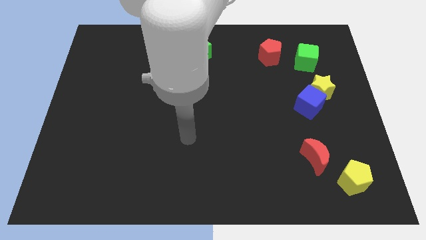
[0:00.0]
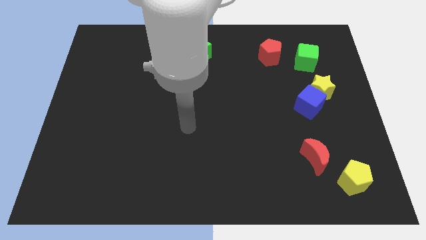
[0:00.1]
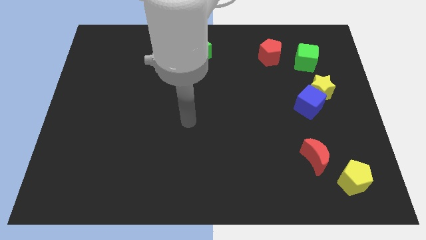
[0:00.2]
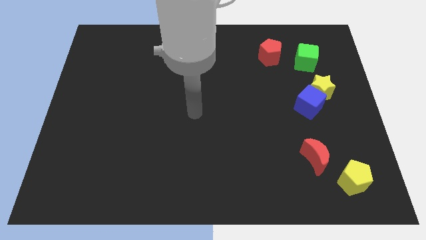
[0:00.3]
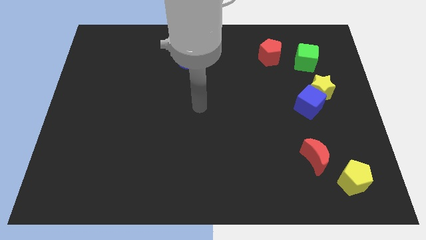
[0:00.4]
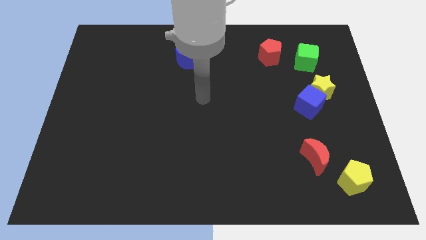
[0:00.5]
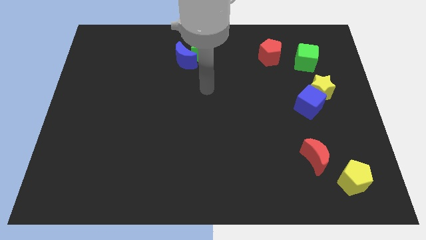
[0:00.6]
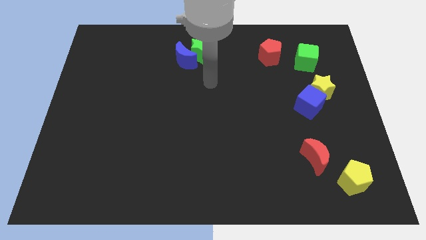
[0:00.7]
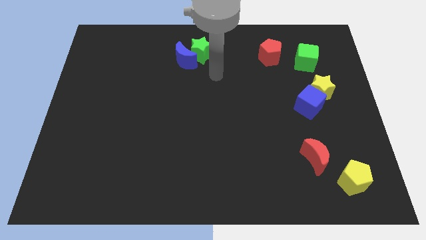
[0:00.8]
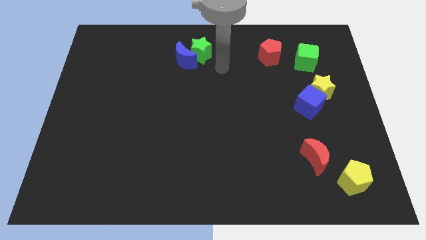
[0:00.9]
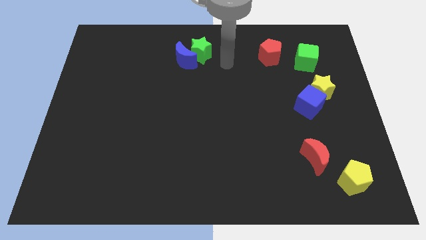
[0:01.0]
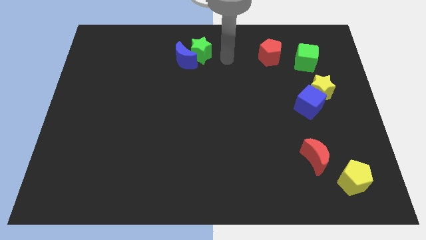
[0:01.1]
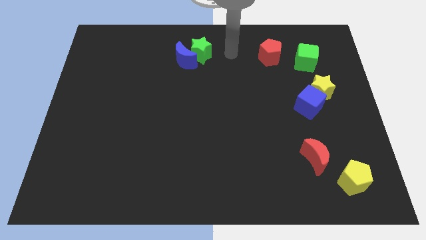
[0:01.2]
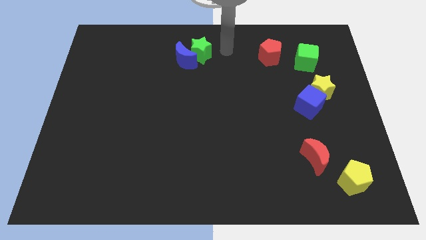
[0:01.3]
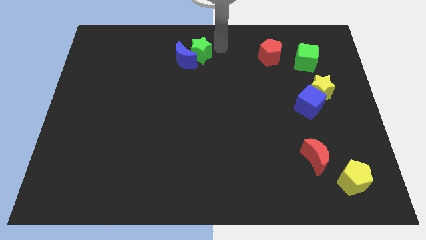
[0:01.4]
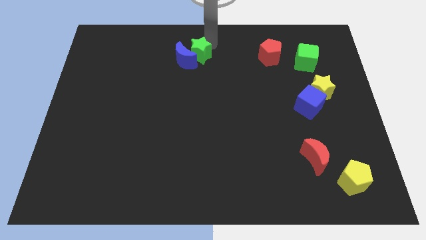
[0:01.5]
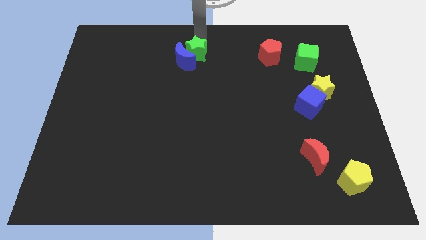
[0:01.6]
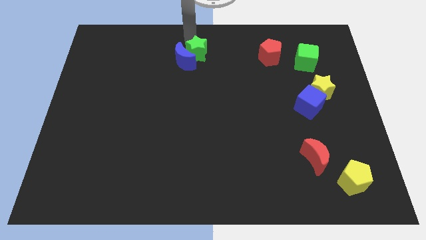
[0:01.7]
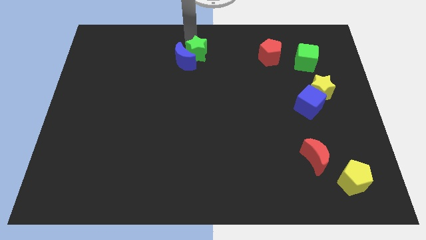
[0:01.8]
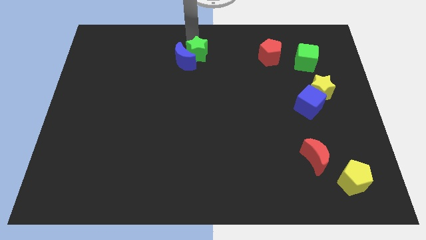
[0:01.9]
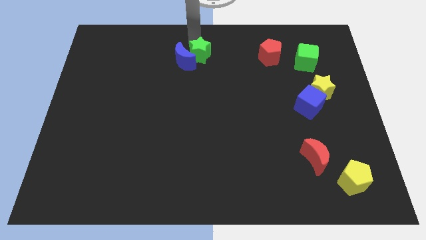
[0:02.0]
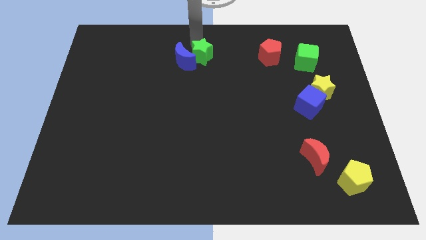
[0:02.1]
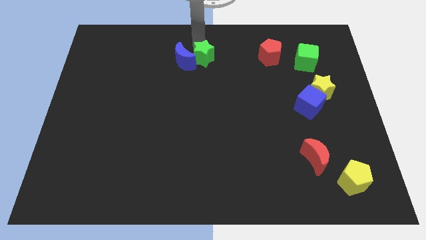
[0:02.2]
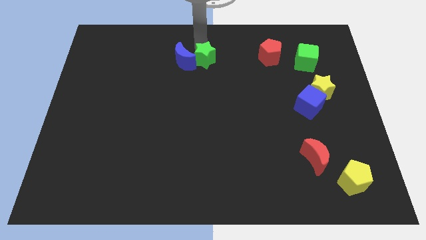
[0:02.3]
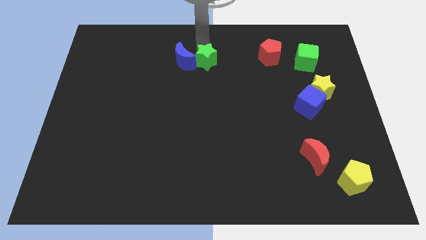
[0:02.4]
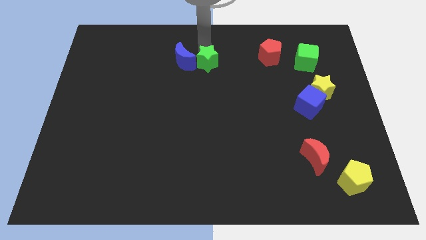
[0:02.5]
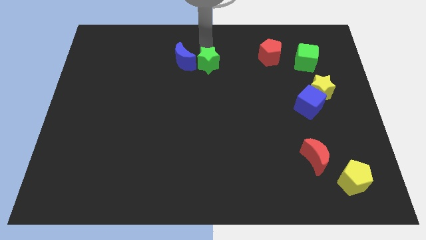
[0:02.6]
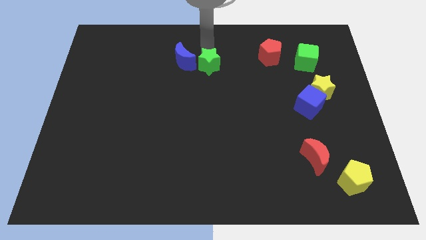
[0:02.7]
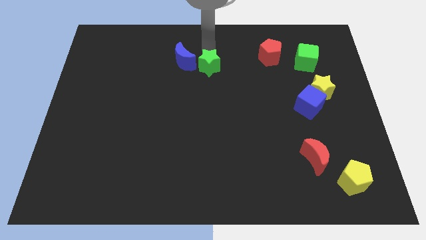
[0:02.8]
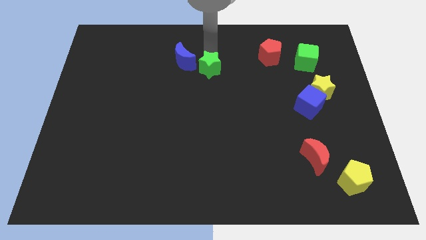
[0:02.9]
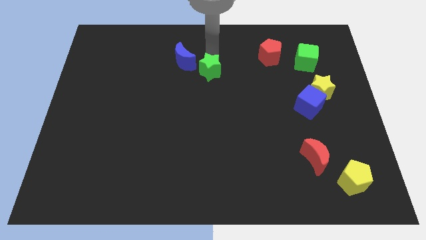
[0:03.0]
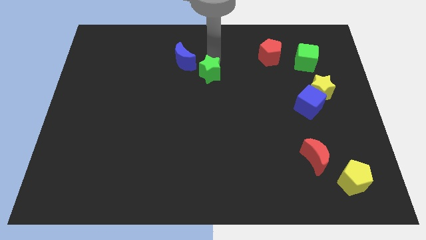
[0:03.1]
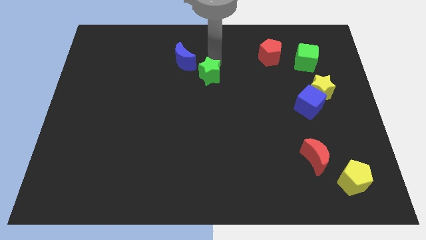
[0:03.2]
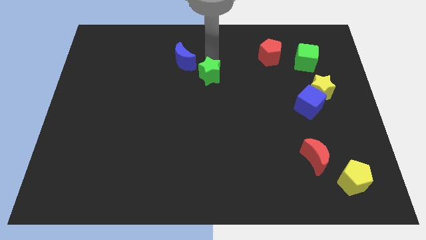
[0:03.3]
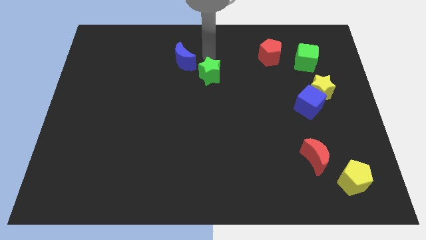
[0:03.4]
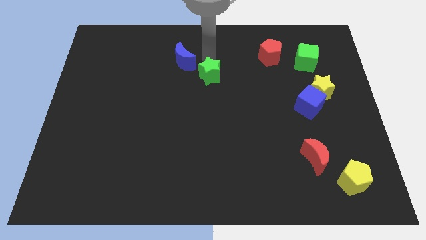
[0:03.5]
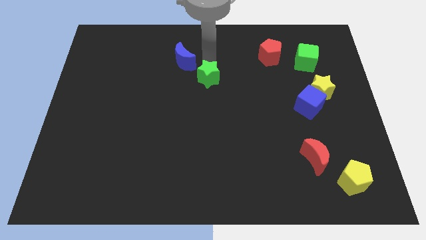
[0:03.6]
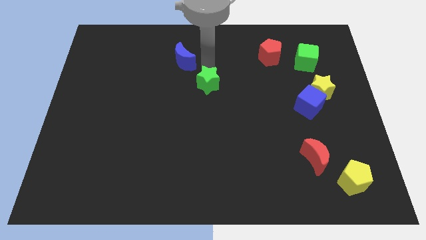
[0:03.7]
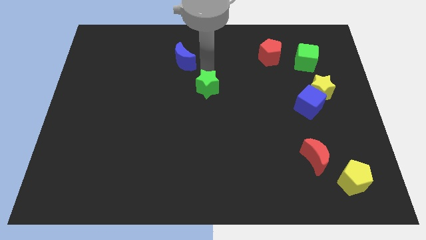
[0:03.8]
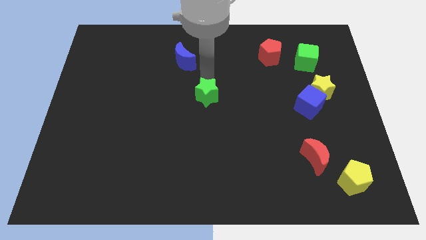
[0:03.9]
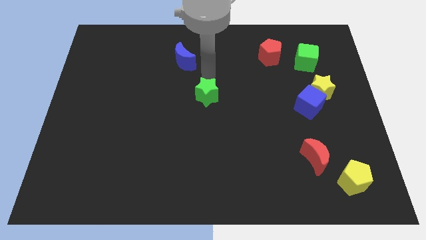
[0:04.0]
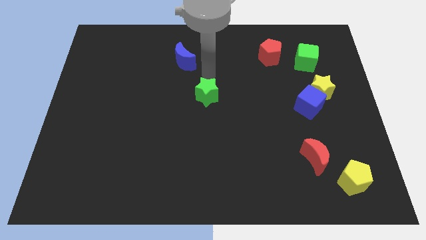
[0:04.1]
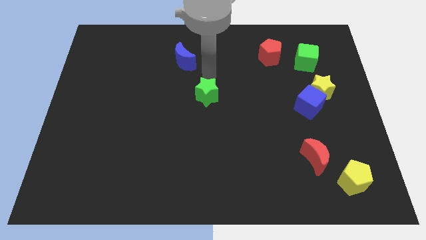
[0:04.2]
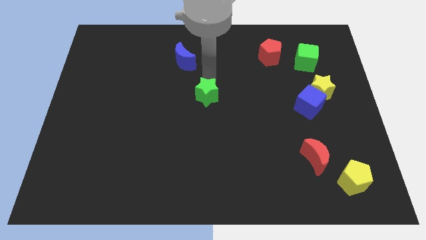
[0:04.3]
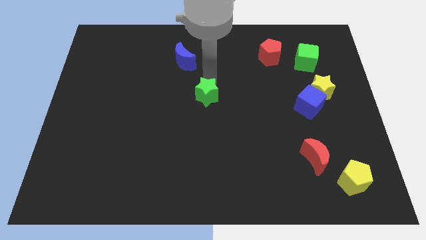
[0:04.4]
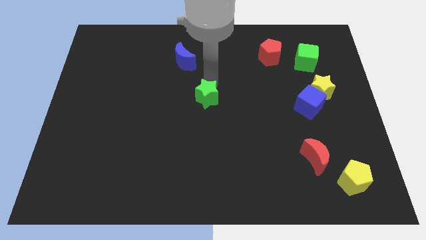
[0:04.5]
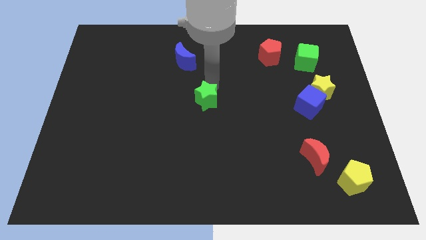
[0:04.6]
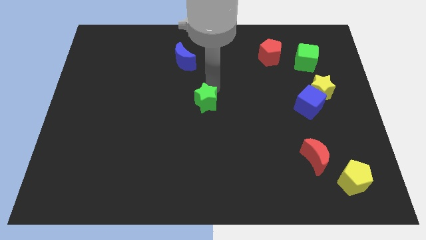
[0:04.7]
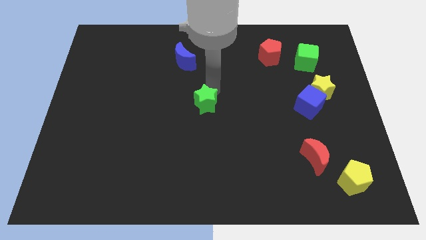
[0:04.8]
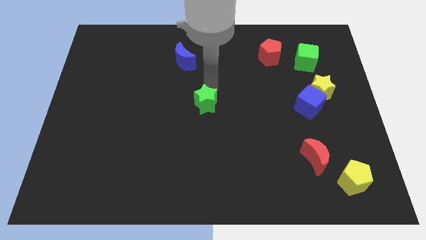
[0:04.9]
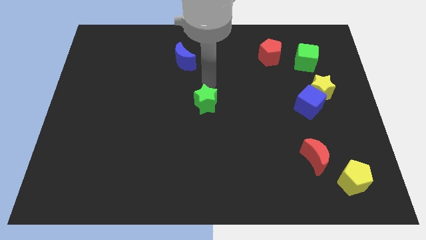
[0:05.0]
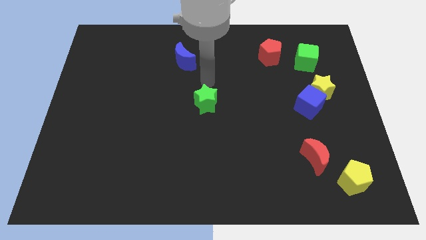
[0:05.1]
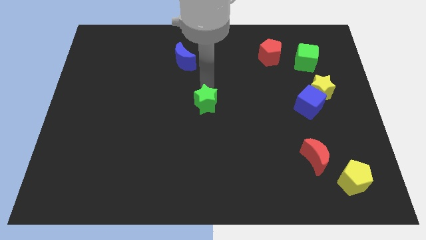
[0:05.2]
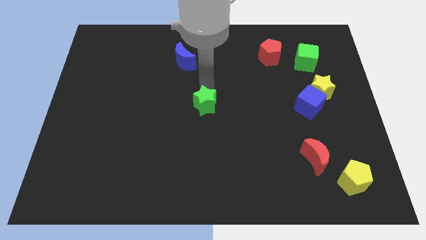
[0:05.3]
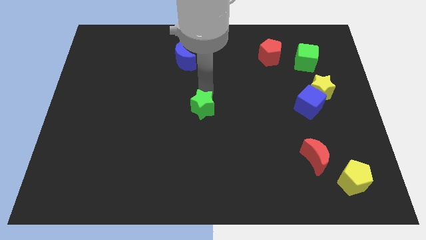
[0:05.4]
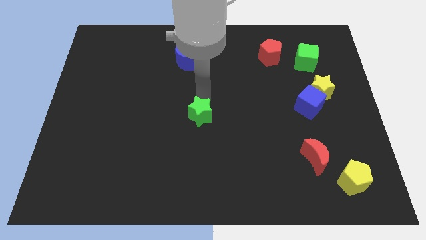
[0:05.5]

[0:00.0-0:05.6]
slide the green star down

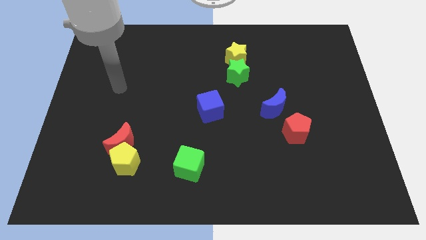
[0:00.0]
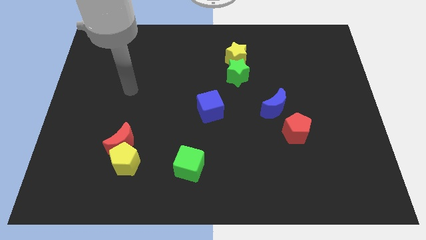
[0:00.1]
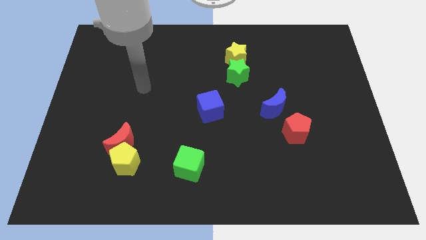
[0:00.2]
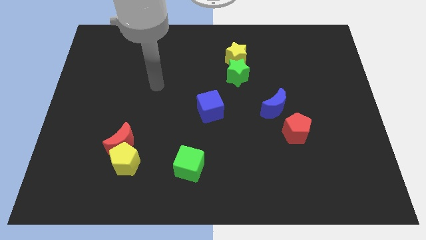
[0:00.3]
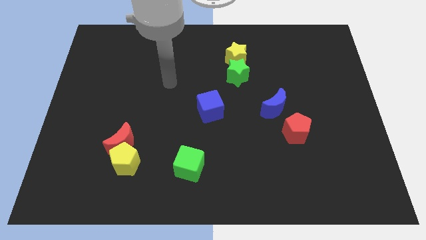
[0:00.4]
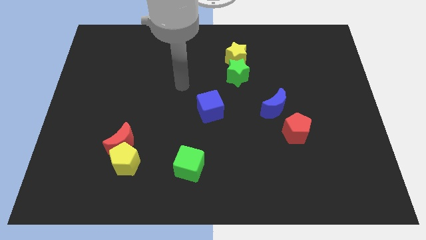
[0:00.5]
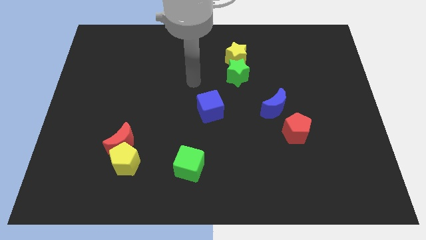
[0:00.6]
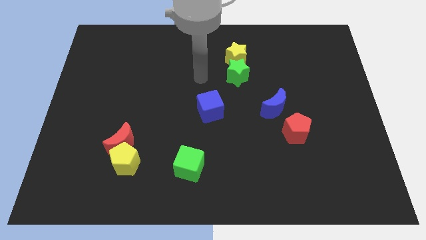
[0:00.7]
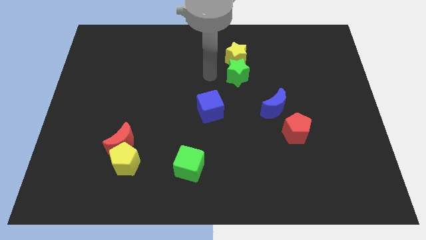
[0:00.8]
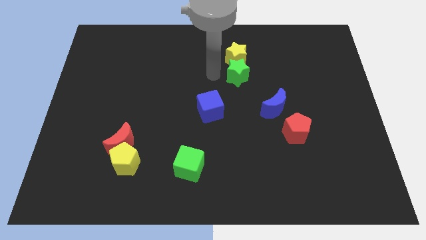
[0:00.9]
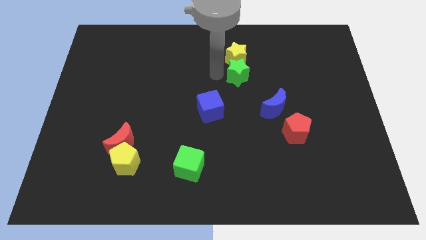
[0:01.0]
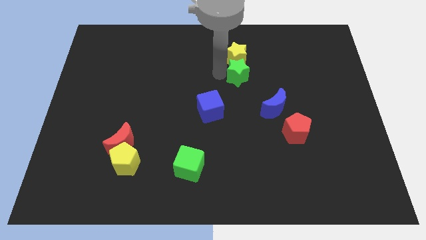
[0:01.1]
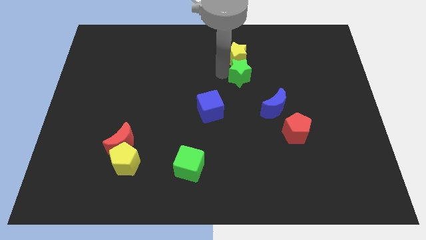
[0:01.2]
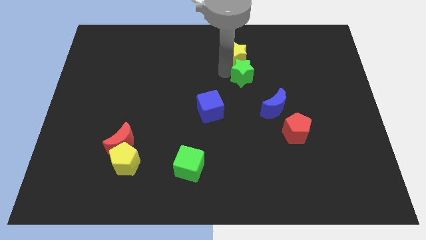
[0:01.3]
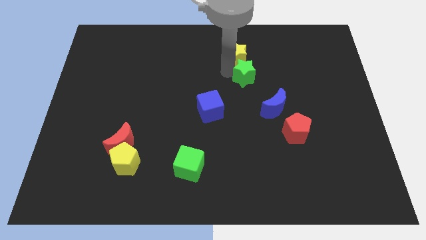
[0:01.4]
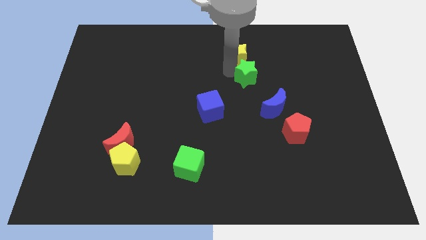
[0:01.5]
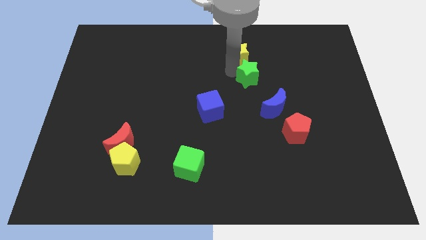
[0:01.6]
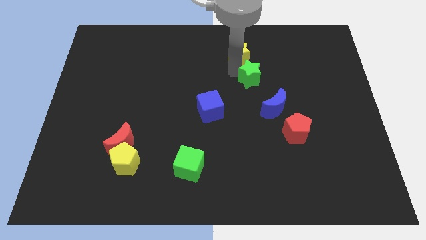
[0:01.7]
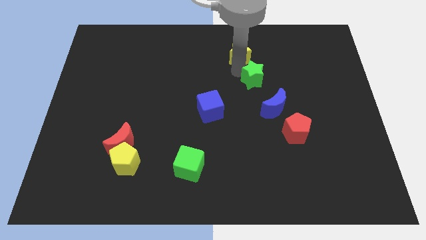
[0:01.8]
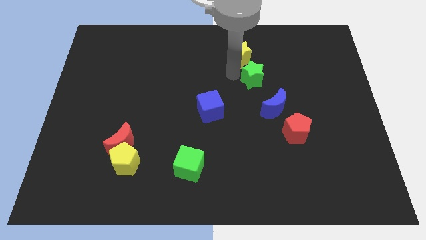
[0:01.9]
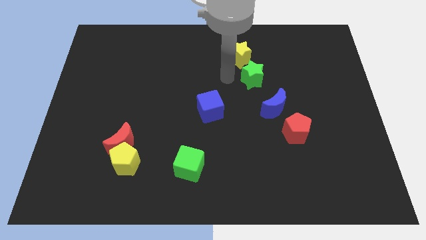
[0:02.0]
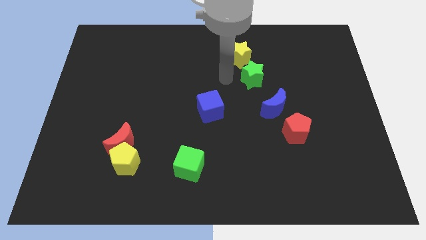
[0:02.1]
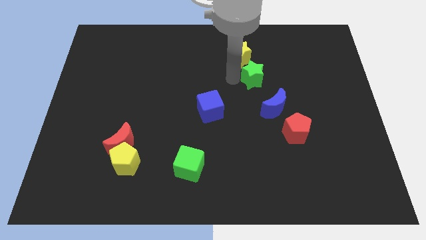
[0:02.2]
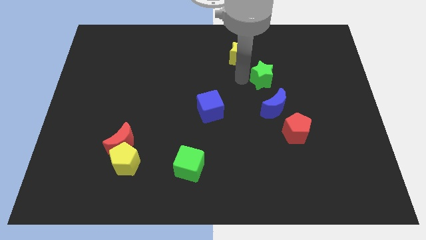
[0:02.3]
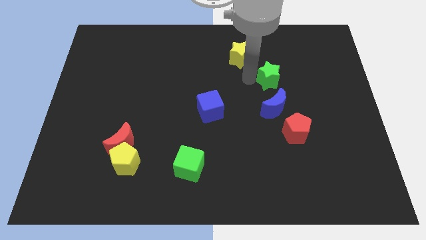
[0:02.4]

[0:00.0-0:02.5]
slide the green star to the right a bit

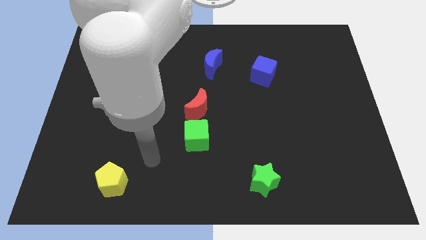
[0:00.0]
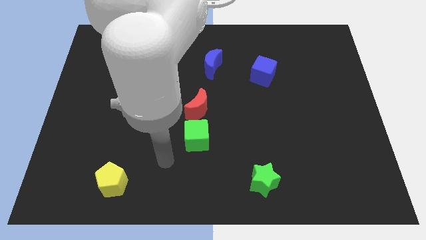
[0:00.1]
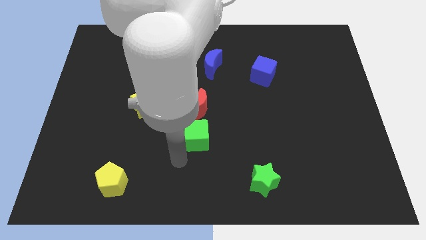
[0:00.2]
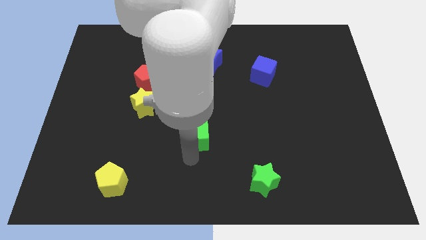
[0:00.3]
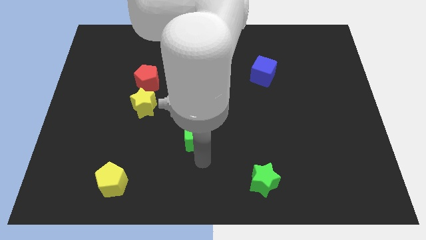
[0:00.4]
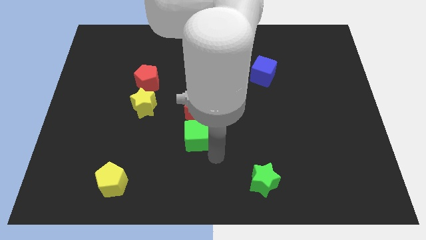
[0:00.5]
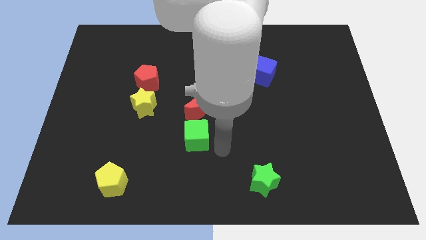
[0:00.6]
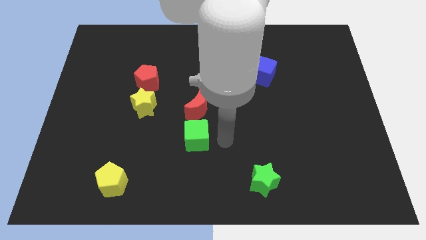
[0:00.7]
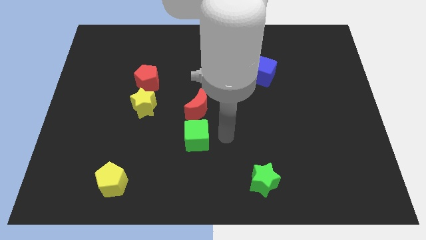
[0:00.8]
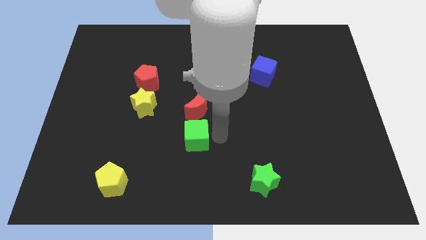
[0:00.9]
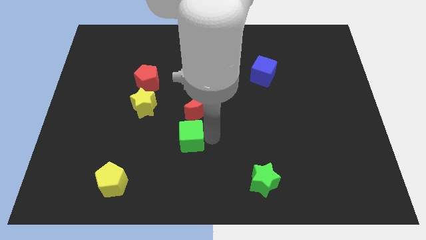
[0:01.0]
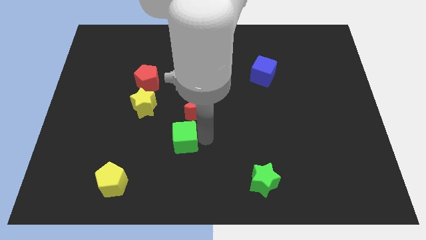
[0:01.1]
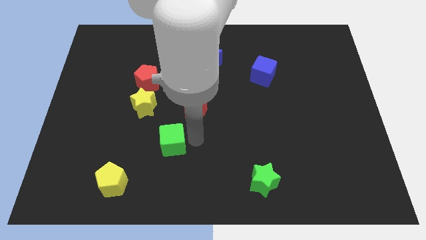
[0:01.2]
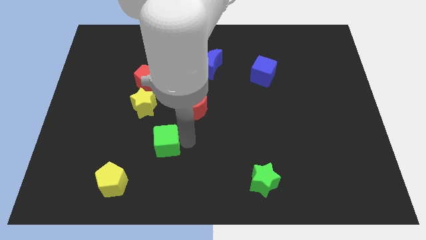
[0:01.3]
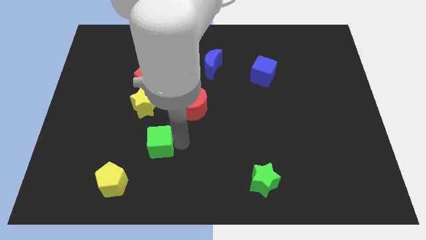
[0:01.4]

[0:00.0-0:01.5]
push the green cube a little bit left
